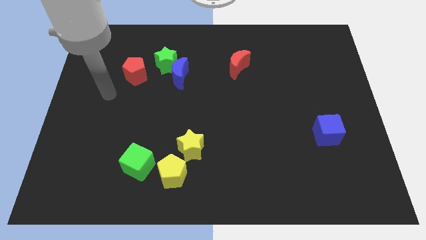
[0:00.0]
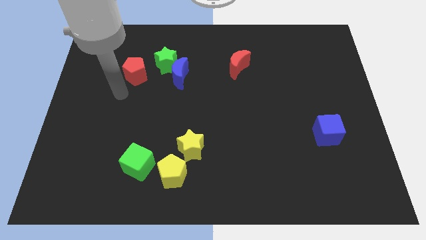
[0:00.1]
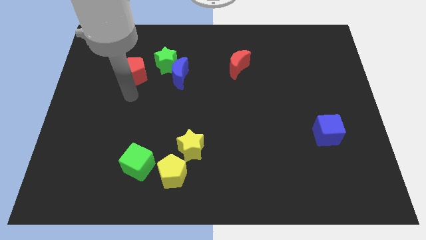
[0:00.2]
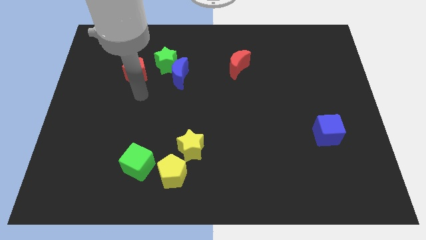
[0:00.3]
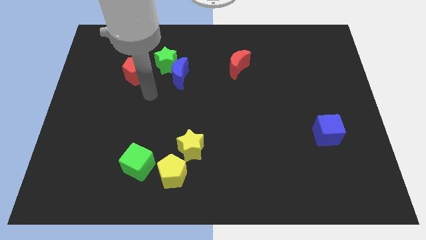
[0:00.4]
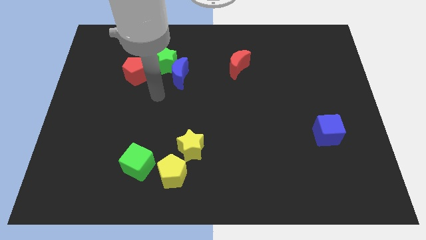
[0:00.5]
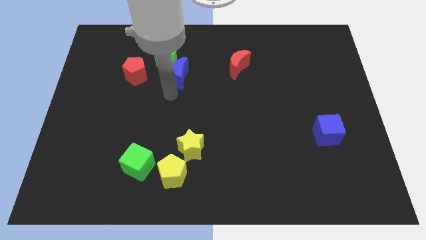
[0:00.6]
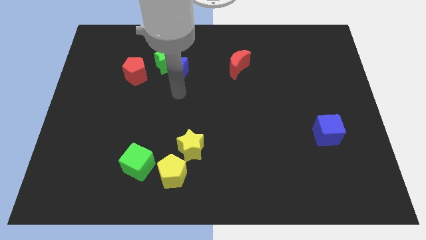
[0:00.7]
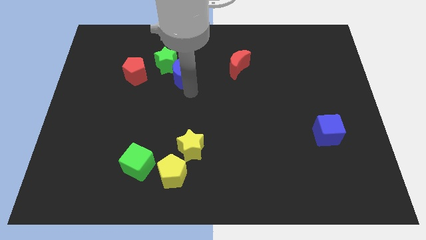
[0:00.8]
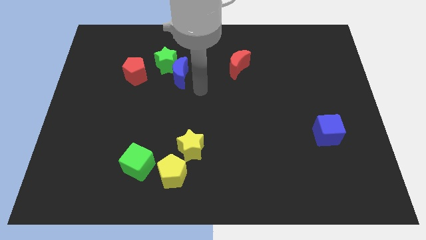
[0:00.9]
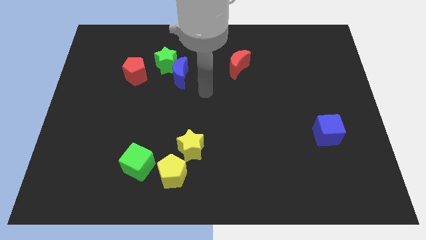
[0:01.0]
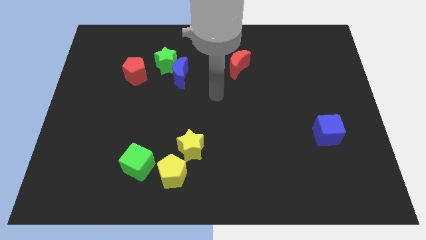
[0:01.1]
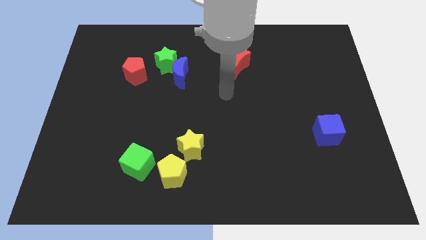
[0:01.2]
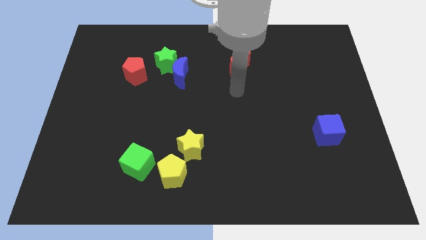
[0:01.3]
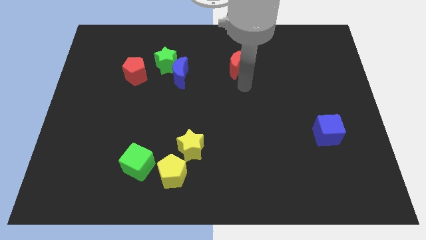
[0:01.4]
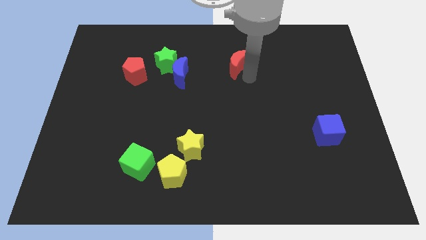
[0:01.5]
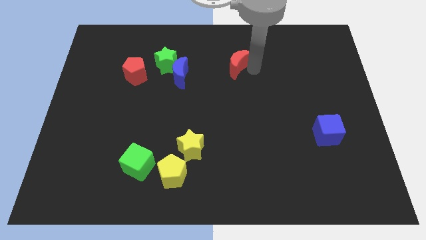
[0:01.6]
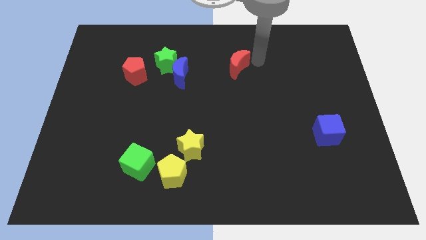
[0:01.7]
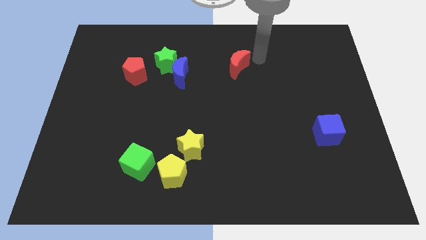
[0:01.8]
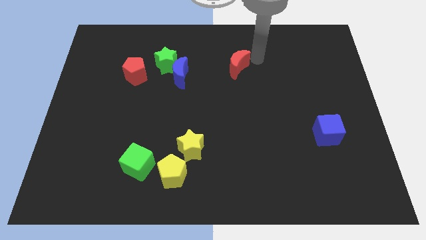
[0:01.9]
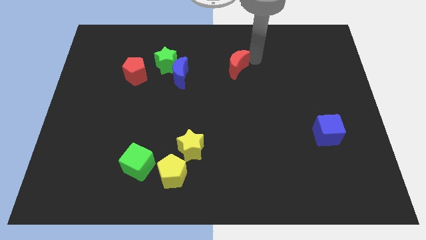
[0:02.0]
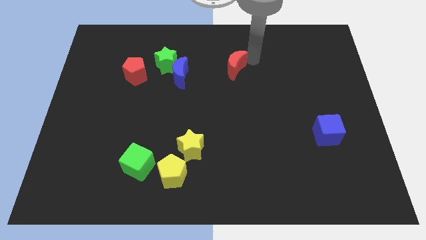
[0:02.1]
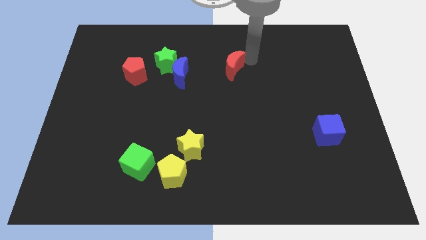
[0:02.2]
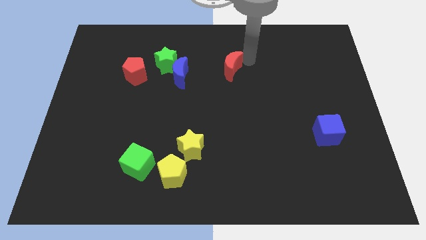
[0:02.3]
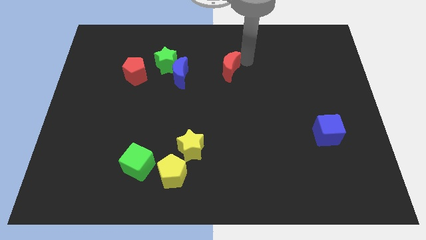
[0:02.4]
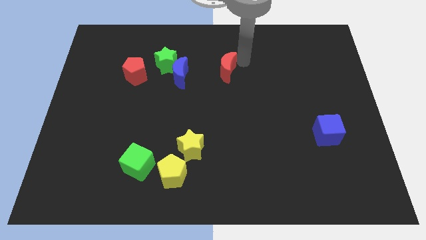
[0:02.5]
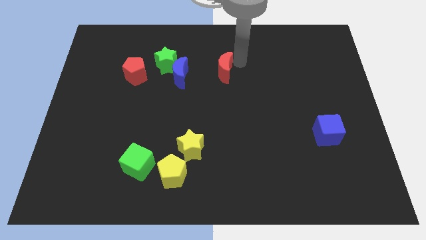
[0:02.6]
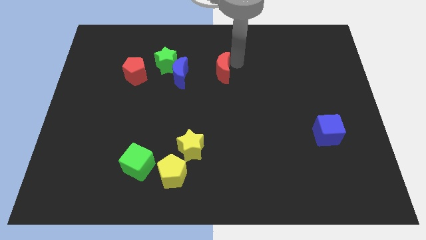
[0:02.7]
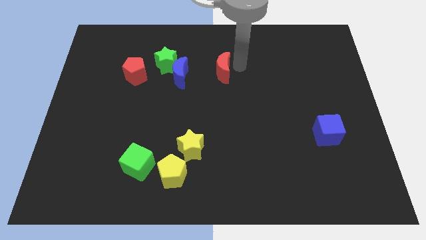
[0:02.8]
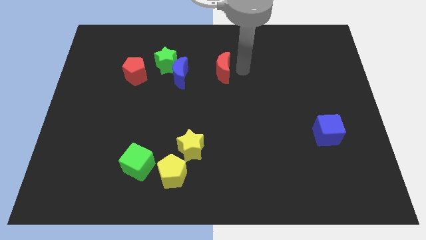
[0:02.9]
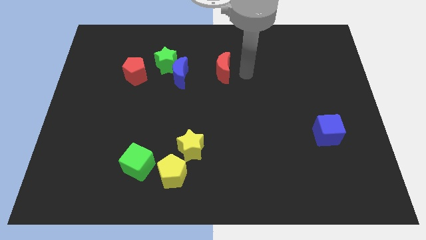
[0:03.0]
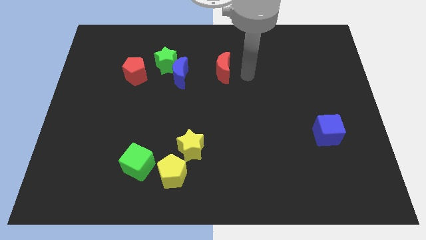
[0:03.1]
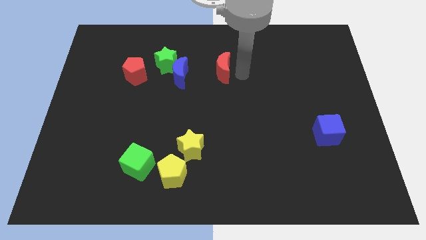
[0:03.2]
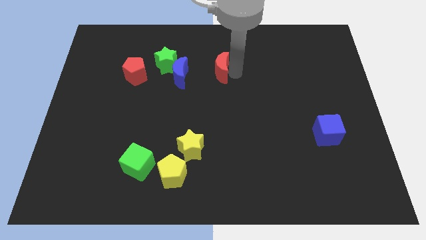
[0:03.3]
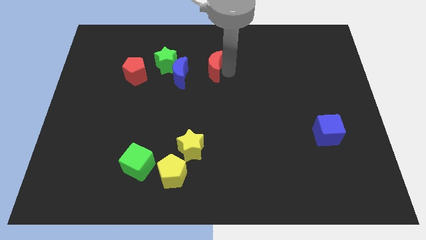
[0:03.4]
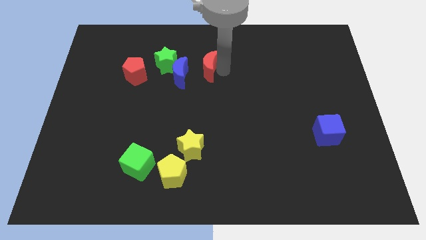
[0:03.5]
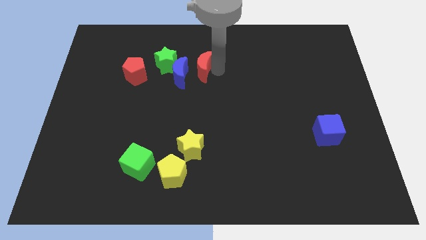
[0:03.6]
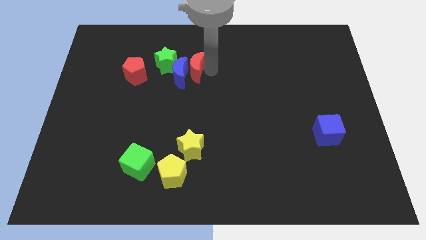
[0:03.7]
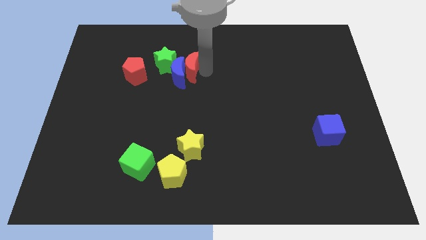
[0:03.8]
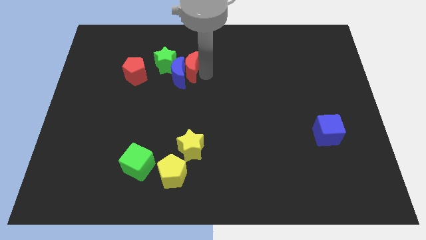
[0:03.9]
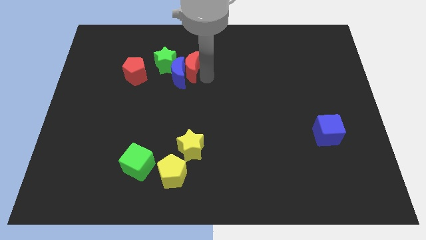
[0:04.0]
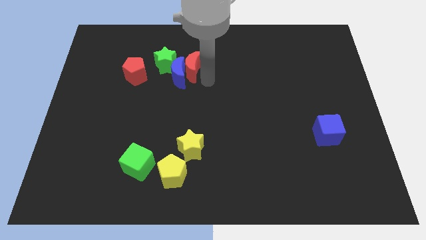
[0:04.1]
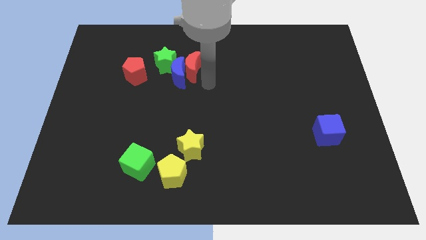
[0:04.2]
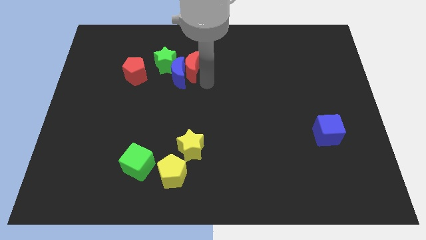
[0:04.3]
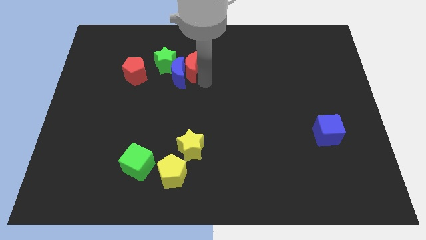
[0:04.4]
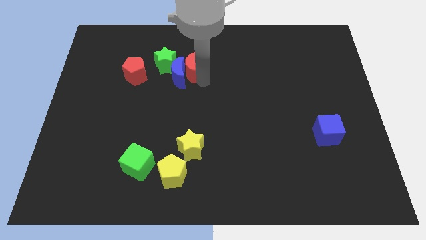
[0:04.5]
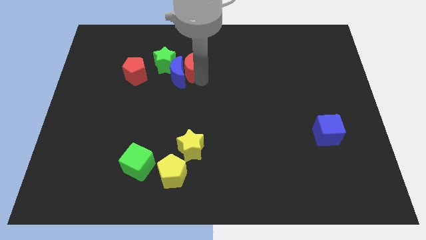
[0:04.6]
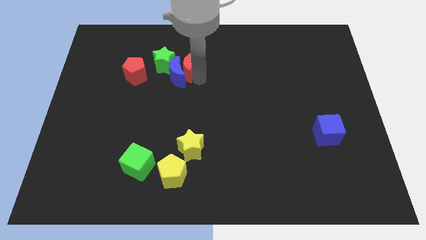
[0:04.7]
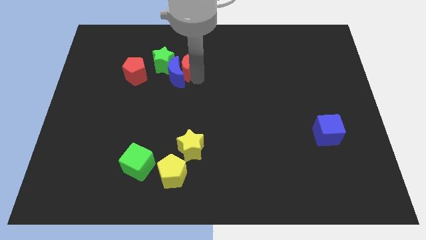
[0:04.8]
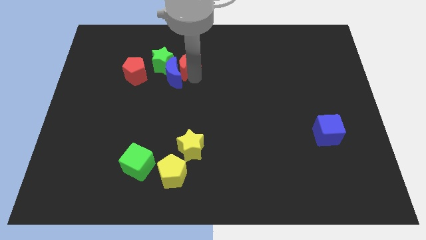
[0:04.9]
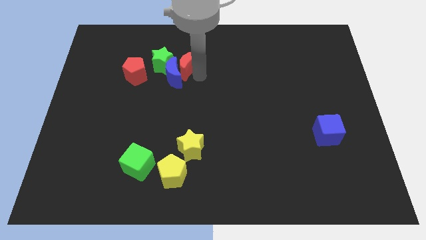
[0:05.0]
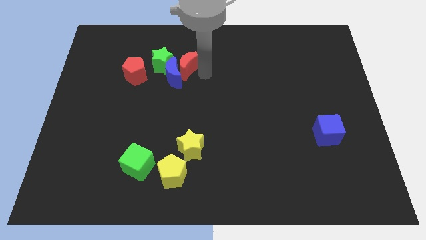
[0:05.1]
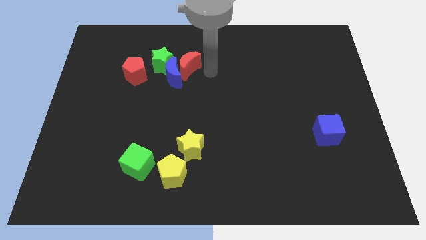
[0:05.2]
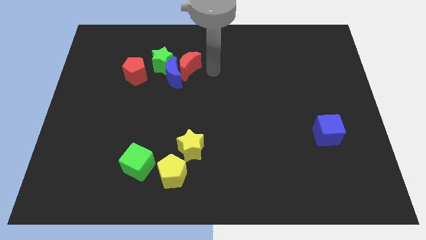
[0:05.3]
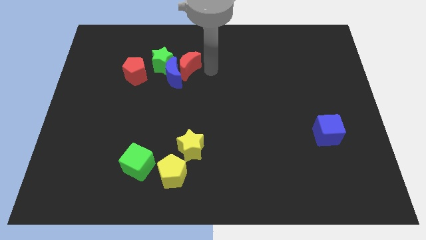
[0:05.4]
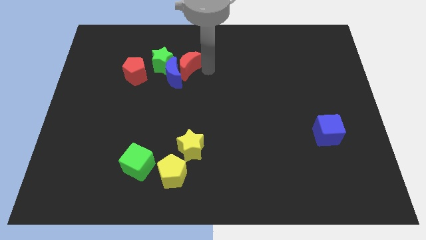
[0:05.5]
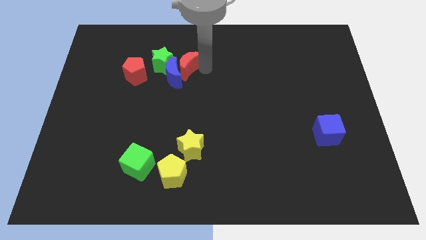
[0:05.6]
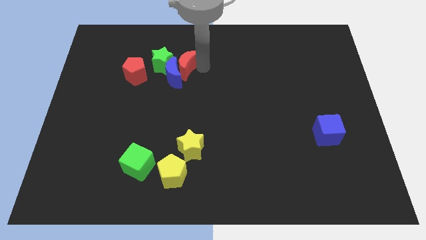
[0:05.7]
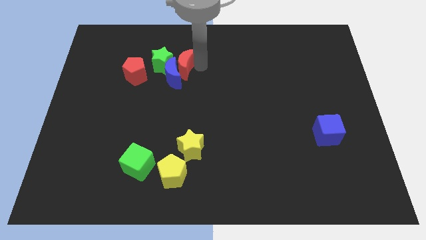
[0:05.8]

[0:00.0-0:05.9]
slide the red moon to the green star

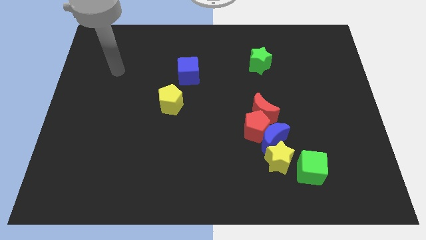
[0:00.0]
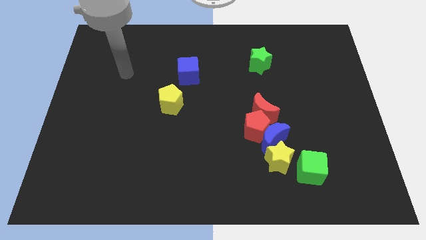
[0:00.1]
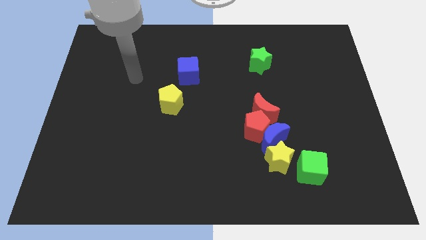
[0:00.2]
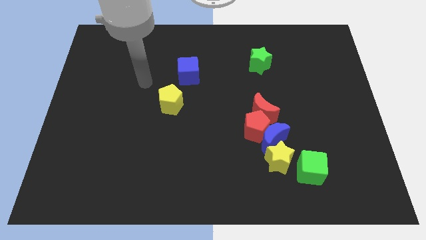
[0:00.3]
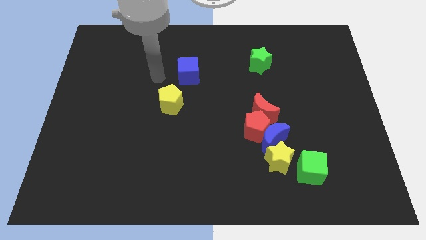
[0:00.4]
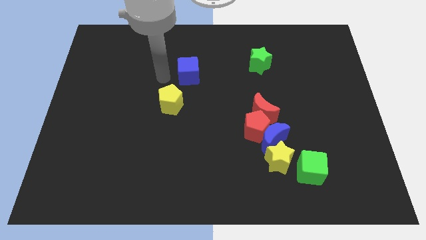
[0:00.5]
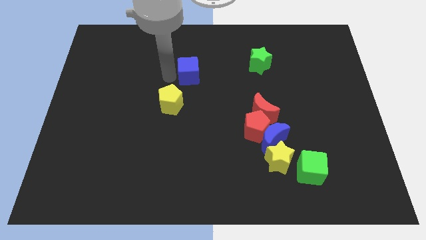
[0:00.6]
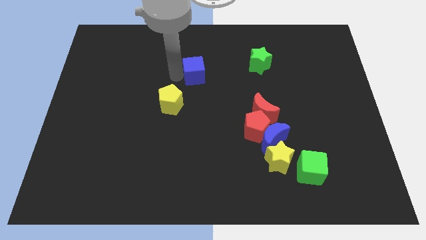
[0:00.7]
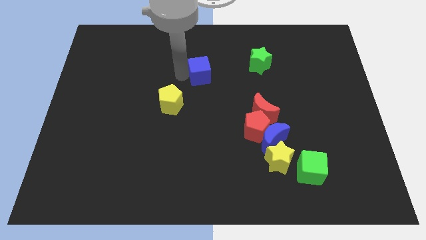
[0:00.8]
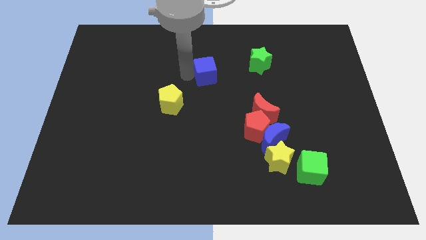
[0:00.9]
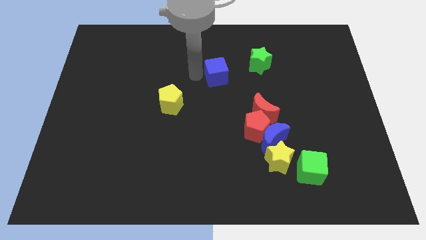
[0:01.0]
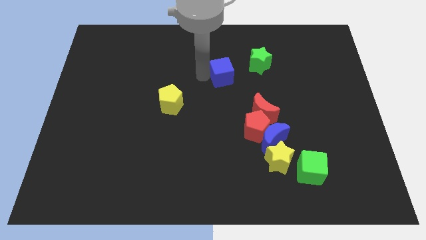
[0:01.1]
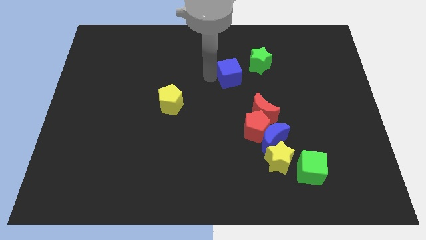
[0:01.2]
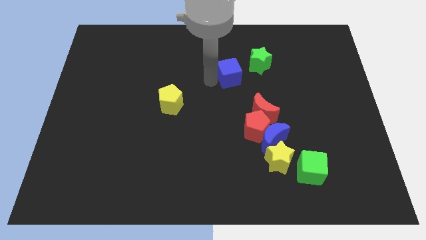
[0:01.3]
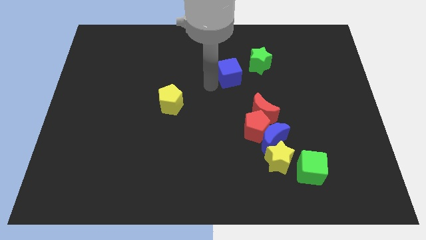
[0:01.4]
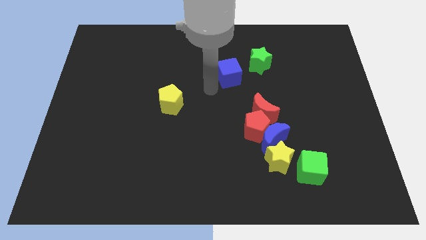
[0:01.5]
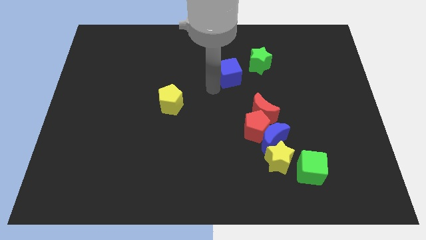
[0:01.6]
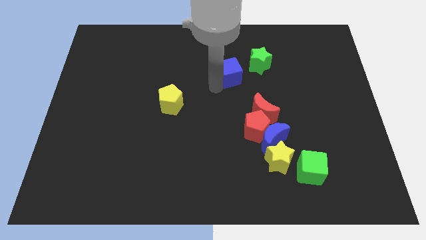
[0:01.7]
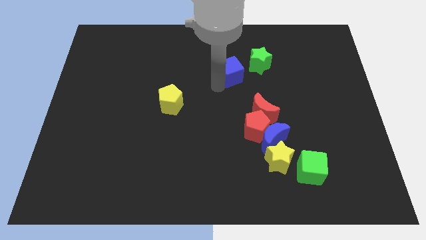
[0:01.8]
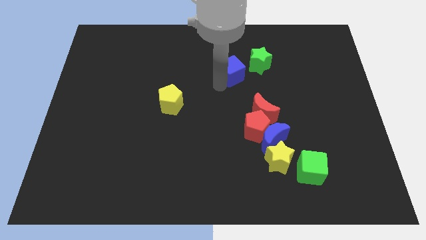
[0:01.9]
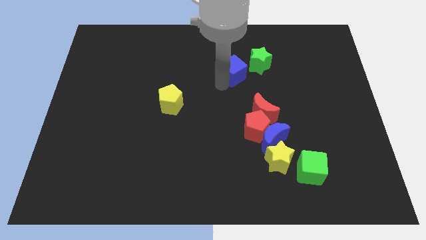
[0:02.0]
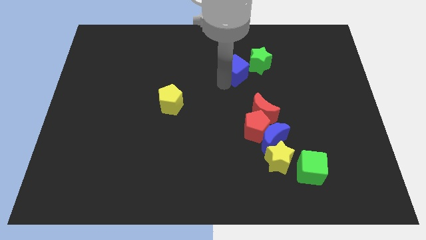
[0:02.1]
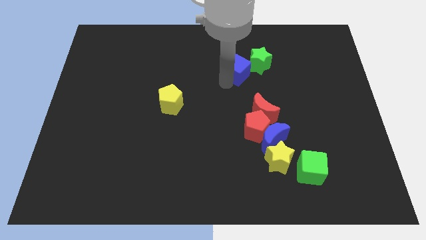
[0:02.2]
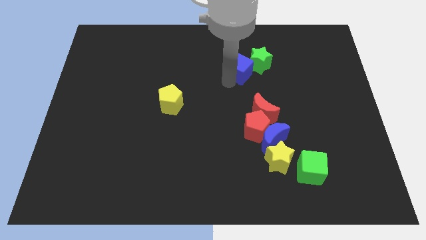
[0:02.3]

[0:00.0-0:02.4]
slide the blue cube to the green star
